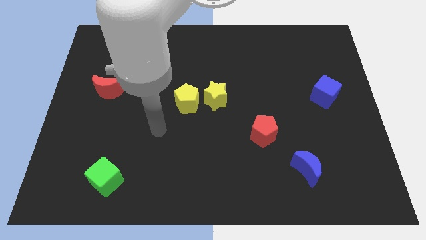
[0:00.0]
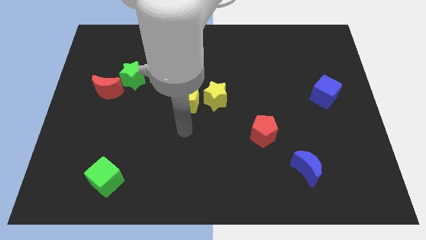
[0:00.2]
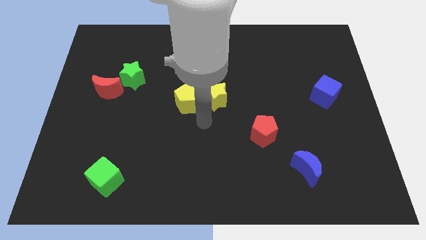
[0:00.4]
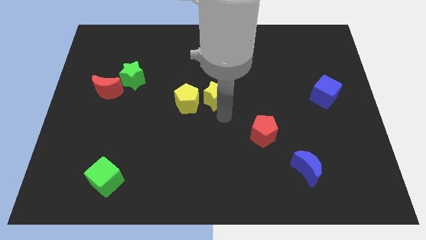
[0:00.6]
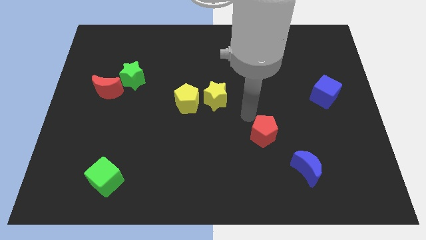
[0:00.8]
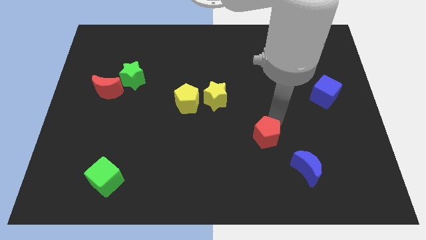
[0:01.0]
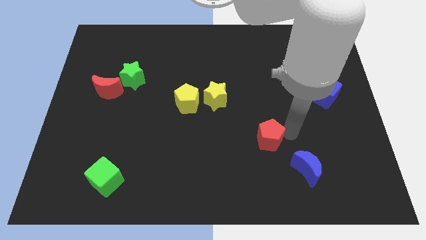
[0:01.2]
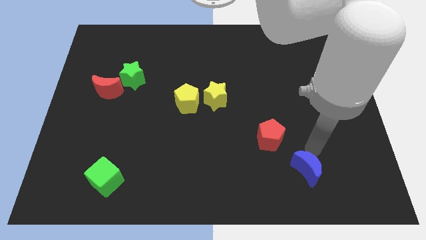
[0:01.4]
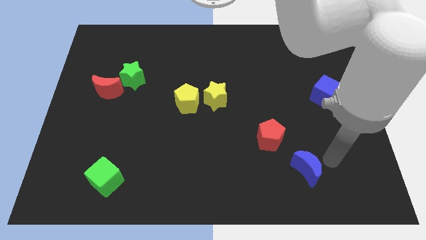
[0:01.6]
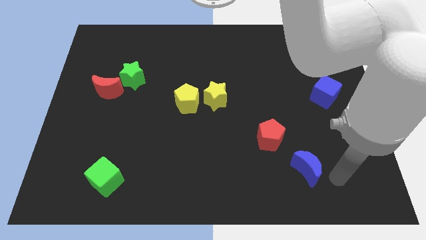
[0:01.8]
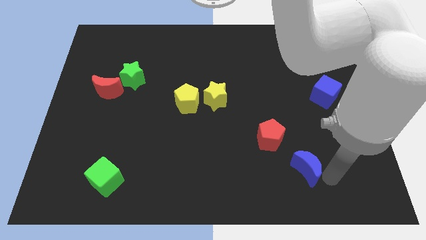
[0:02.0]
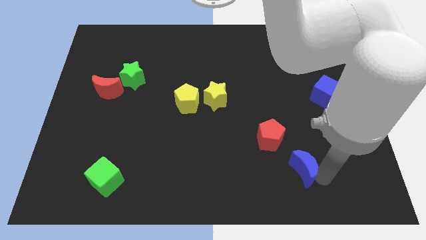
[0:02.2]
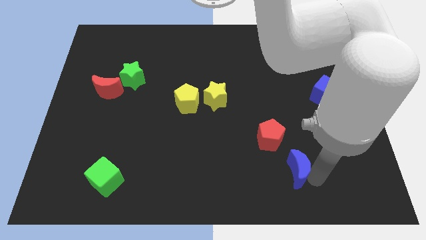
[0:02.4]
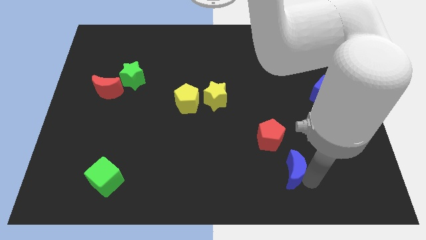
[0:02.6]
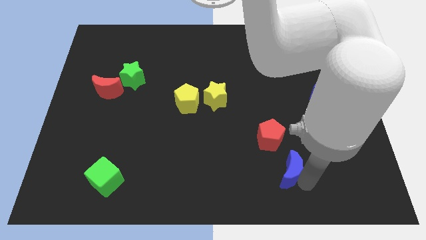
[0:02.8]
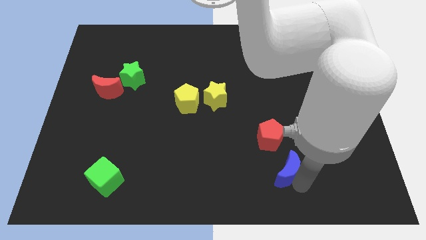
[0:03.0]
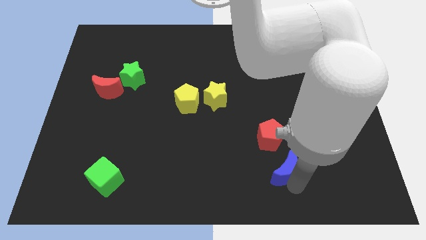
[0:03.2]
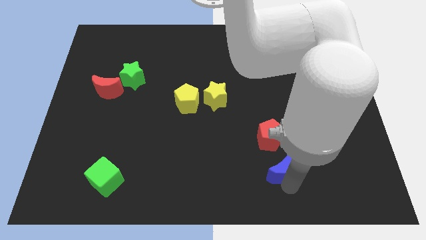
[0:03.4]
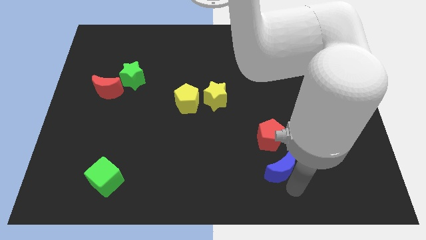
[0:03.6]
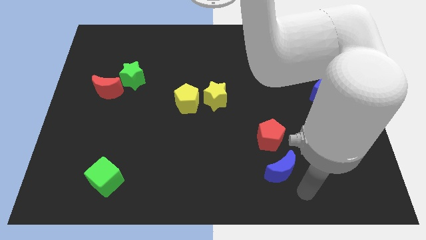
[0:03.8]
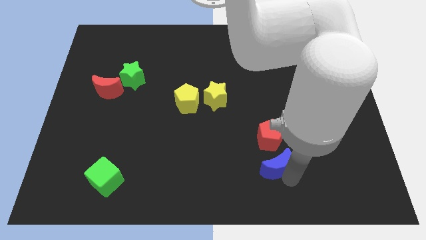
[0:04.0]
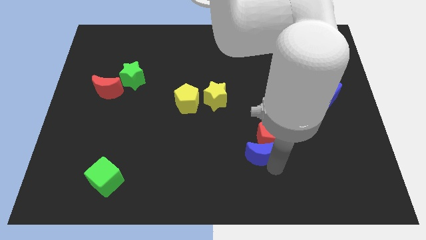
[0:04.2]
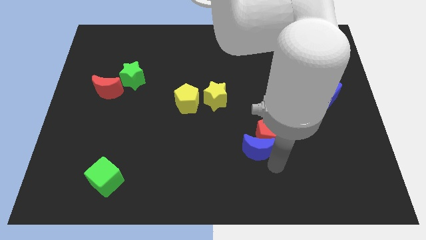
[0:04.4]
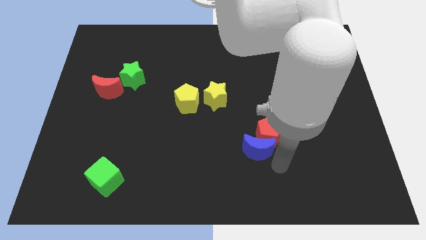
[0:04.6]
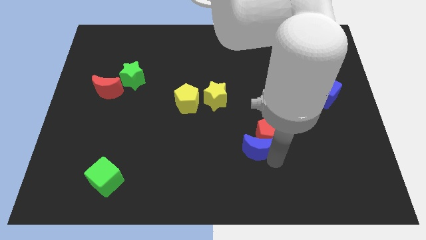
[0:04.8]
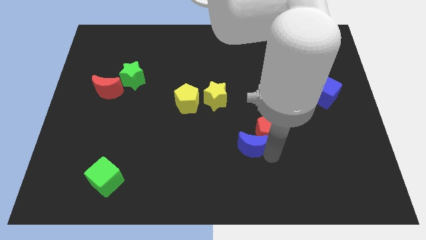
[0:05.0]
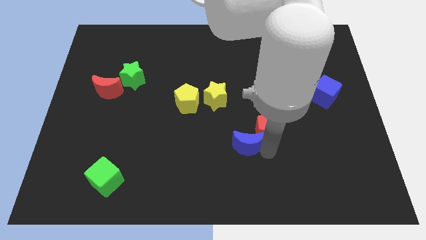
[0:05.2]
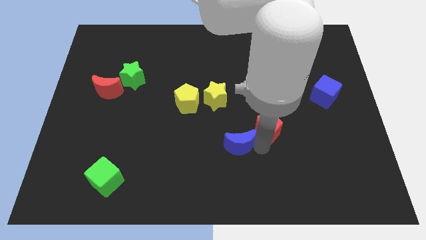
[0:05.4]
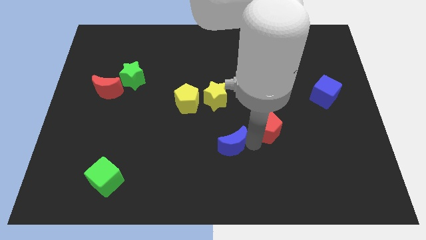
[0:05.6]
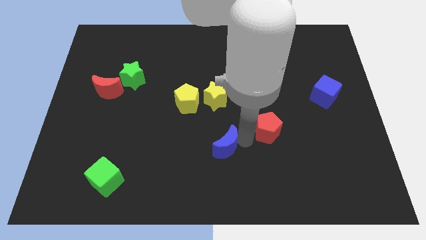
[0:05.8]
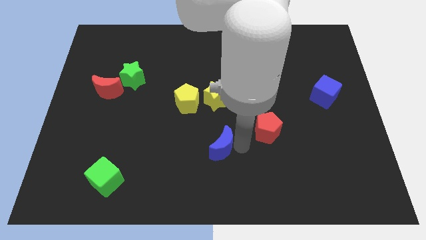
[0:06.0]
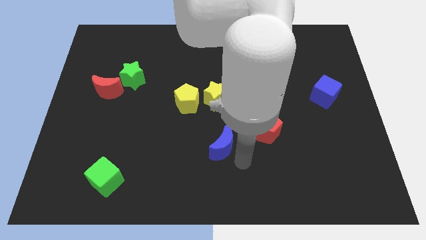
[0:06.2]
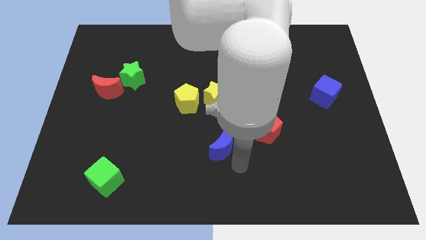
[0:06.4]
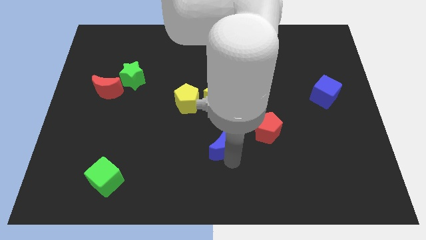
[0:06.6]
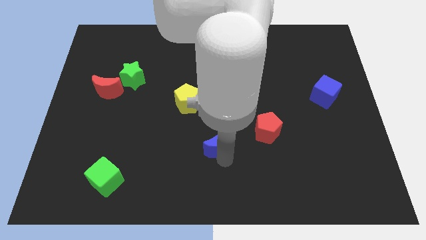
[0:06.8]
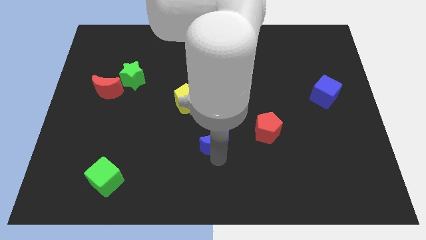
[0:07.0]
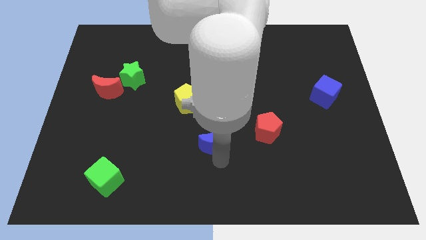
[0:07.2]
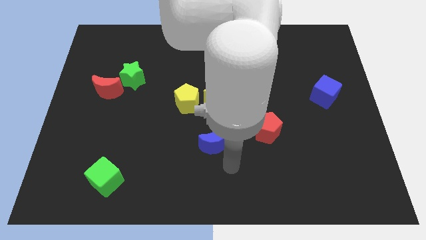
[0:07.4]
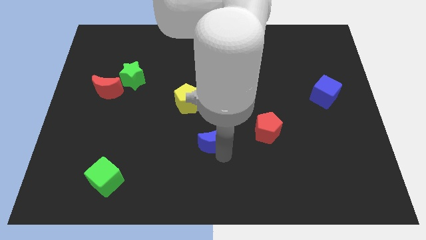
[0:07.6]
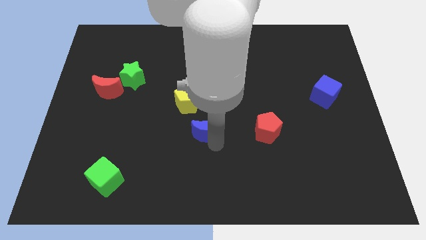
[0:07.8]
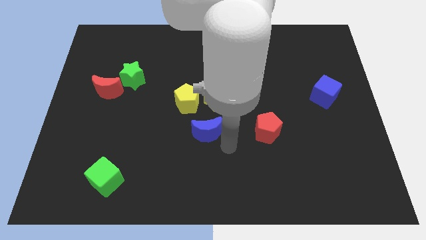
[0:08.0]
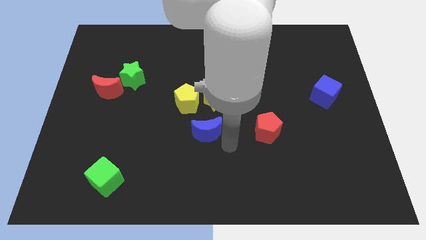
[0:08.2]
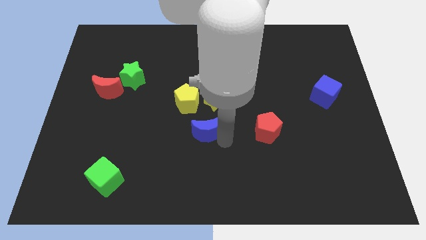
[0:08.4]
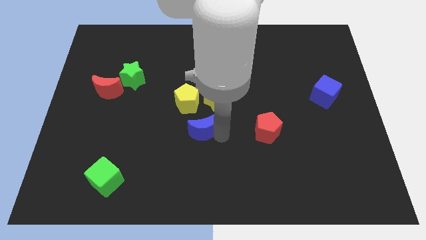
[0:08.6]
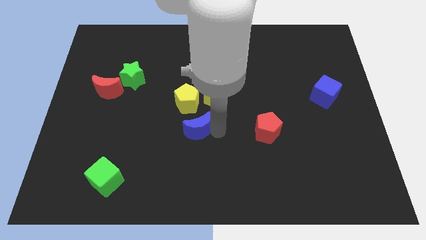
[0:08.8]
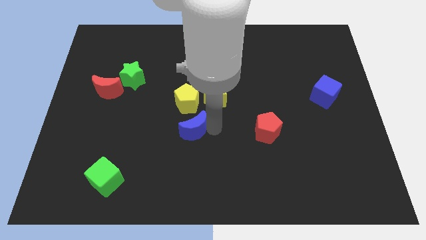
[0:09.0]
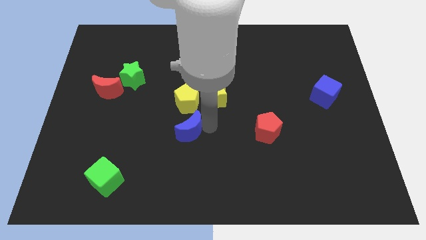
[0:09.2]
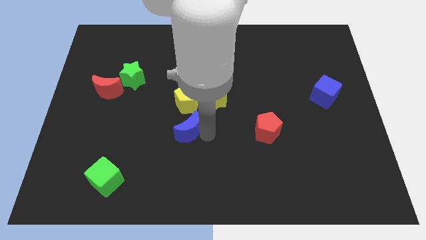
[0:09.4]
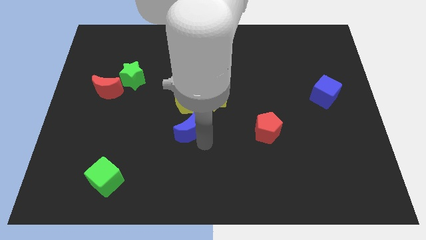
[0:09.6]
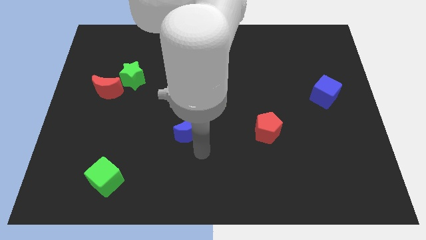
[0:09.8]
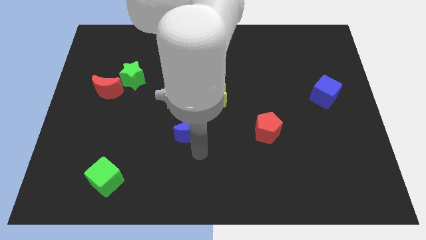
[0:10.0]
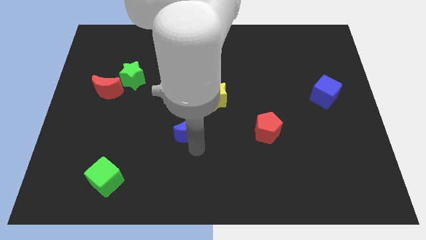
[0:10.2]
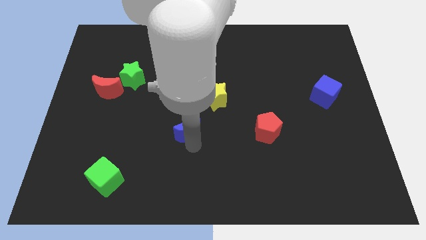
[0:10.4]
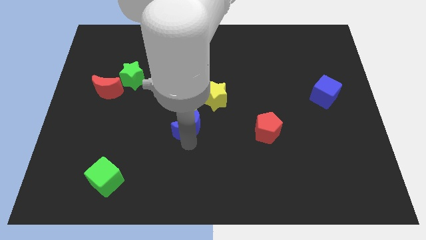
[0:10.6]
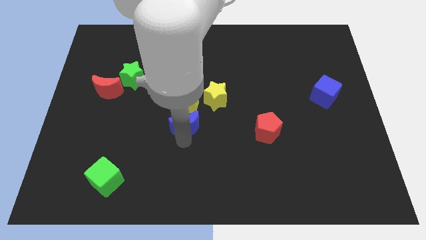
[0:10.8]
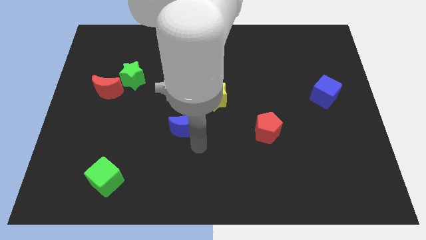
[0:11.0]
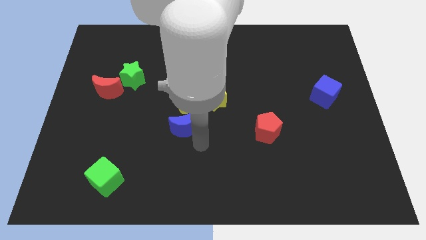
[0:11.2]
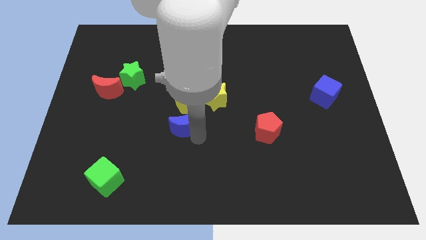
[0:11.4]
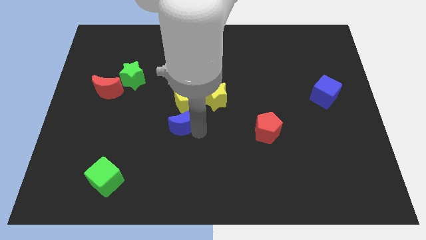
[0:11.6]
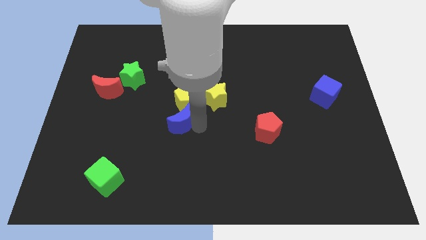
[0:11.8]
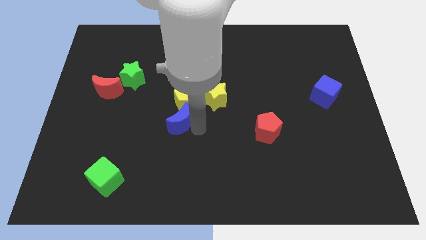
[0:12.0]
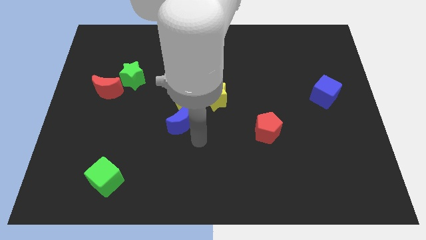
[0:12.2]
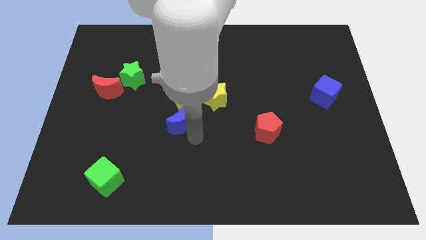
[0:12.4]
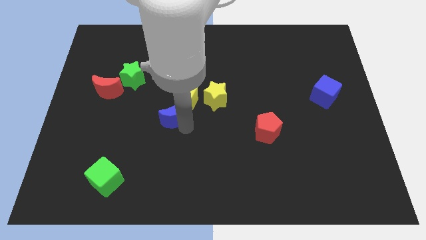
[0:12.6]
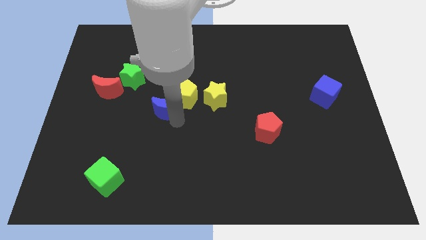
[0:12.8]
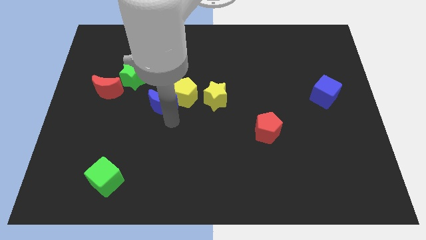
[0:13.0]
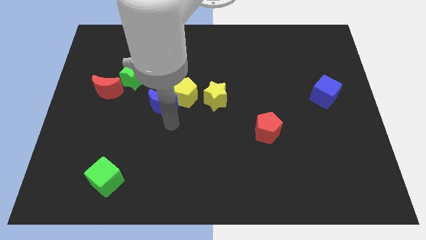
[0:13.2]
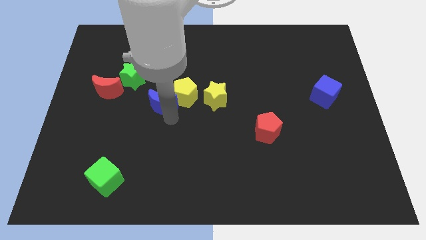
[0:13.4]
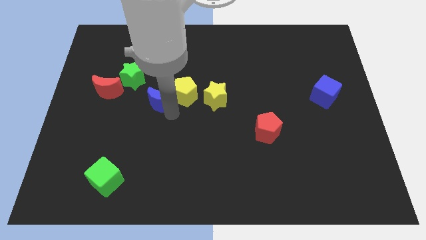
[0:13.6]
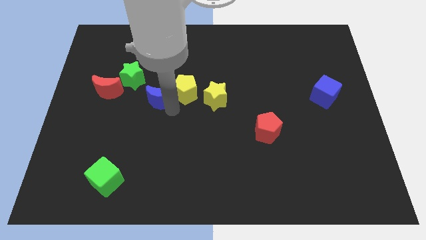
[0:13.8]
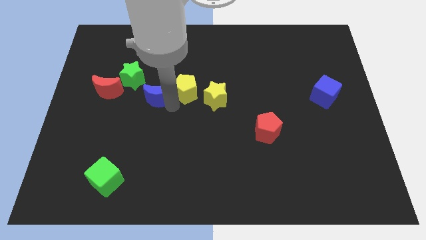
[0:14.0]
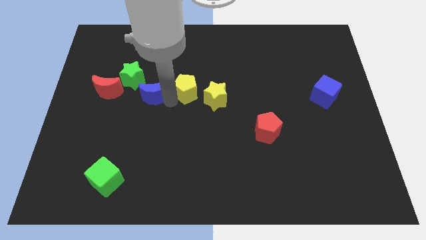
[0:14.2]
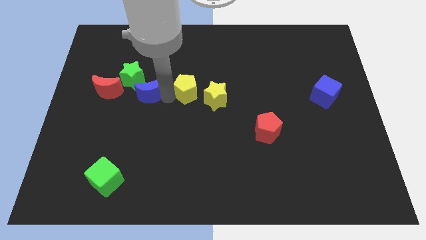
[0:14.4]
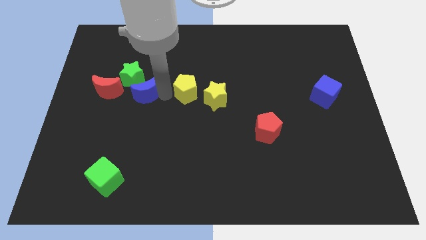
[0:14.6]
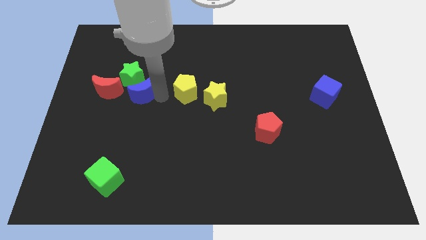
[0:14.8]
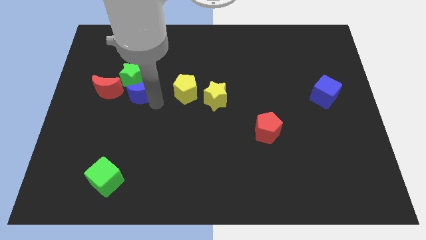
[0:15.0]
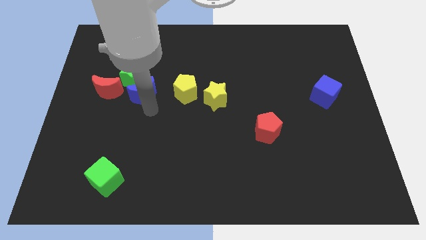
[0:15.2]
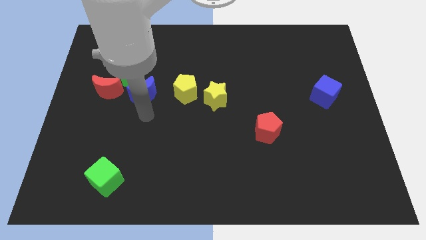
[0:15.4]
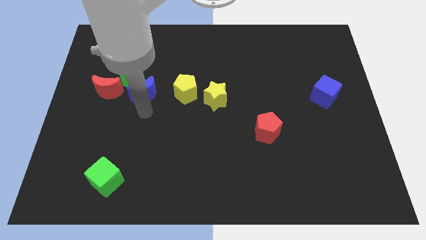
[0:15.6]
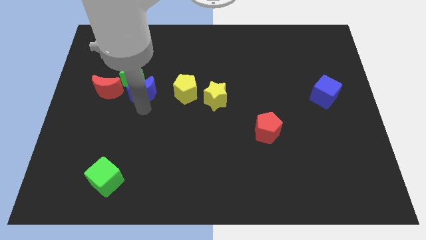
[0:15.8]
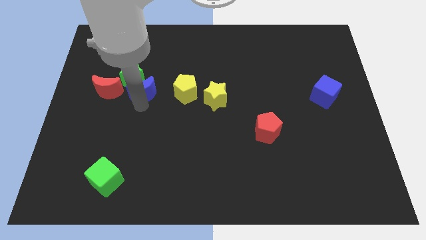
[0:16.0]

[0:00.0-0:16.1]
put the blue moon next to the green star
